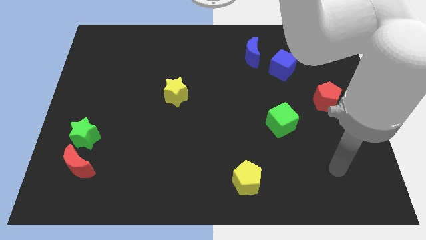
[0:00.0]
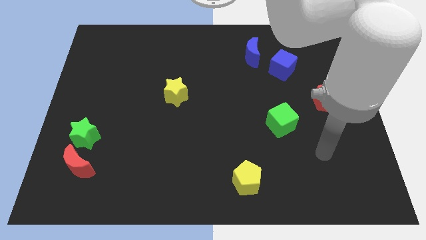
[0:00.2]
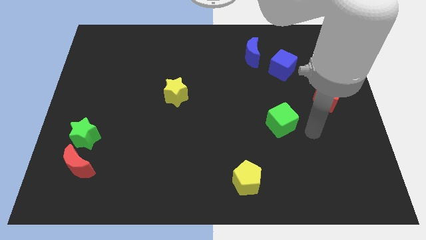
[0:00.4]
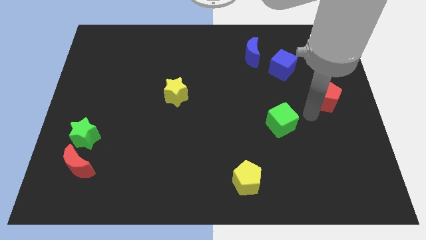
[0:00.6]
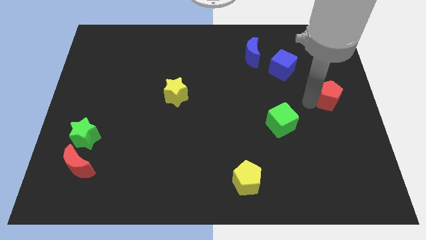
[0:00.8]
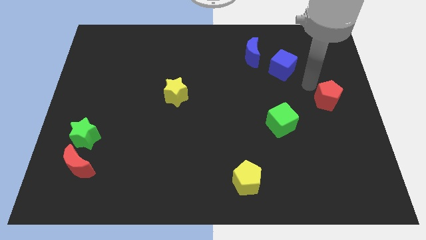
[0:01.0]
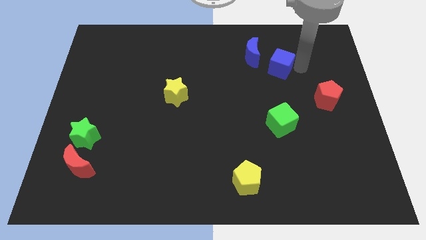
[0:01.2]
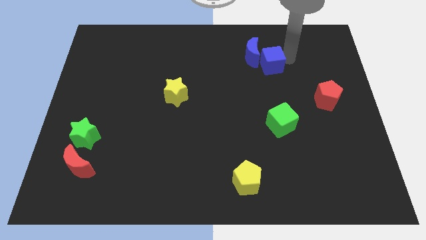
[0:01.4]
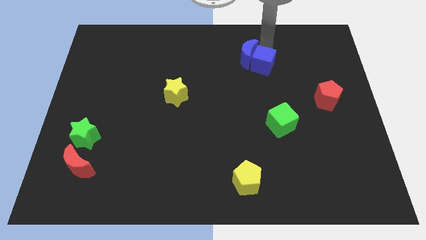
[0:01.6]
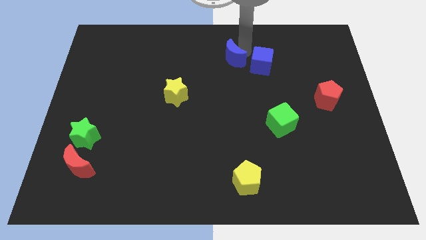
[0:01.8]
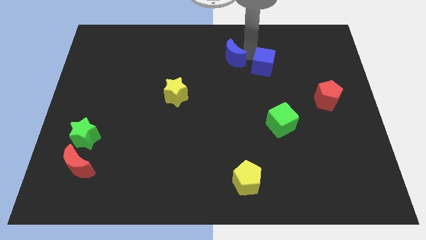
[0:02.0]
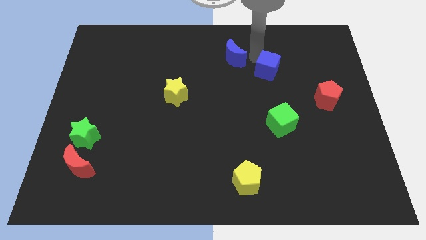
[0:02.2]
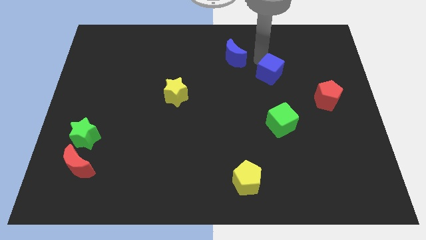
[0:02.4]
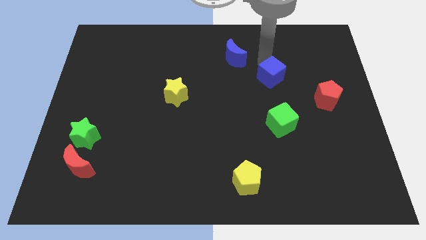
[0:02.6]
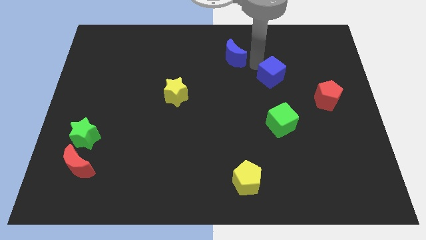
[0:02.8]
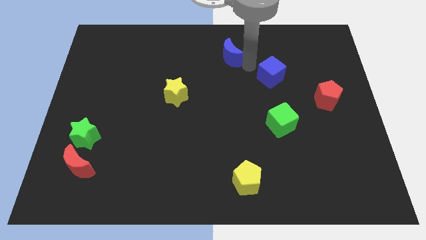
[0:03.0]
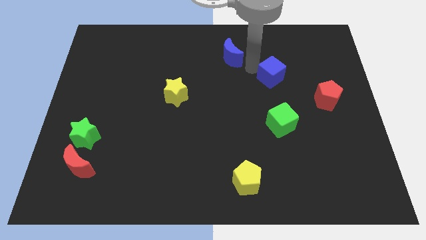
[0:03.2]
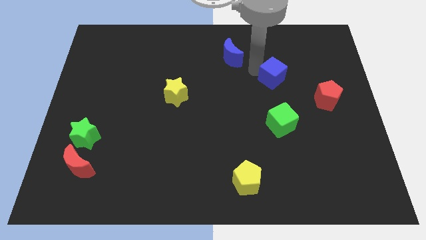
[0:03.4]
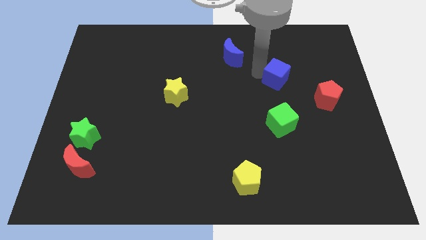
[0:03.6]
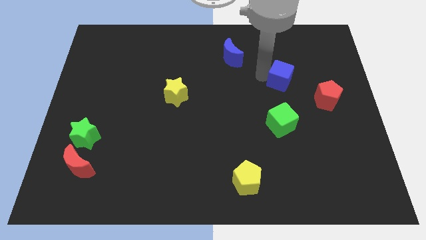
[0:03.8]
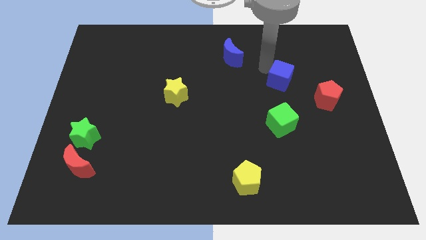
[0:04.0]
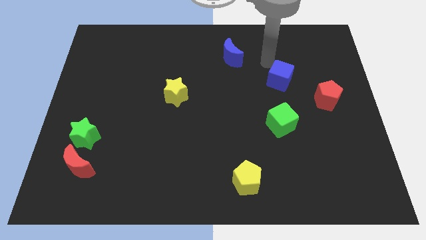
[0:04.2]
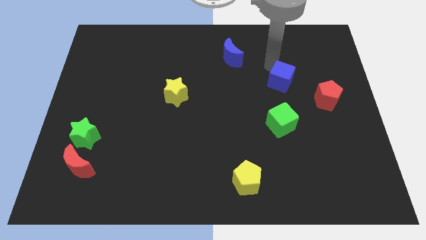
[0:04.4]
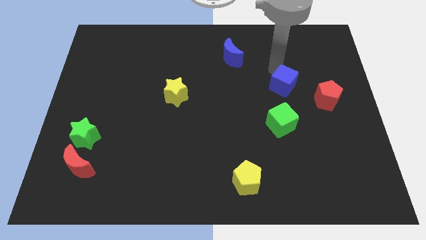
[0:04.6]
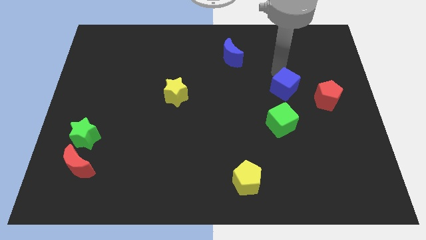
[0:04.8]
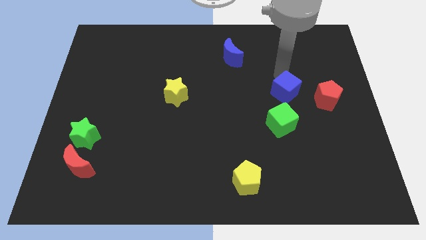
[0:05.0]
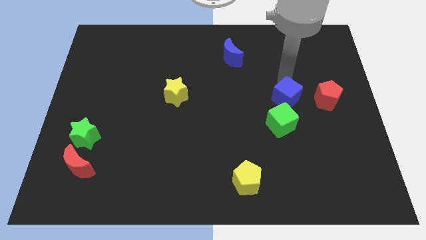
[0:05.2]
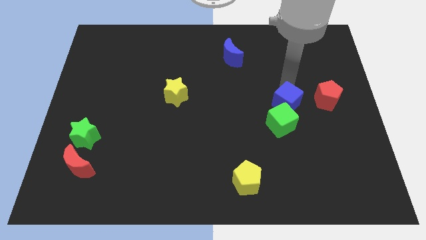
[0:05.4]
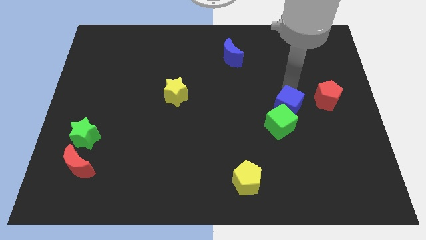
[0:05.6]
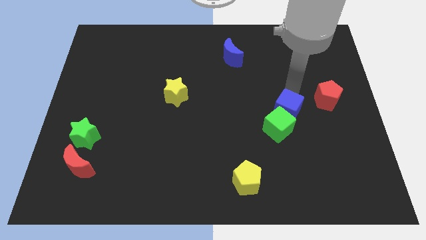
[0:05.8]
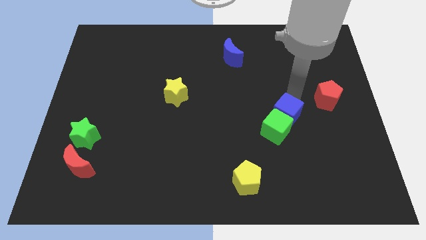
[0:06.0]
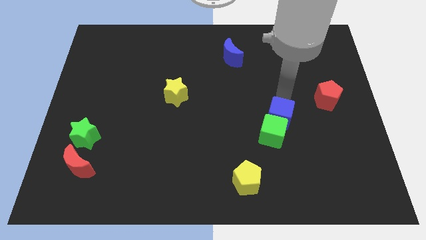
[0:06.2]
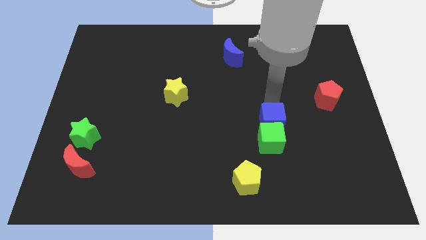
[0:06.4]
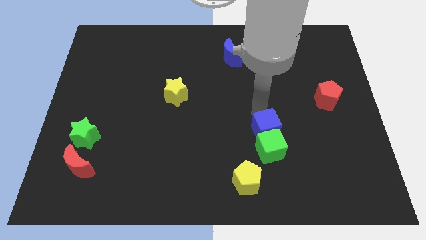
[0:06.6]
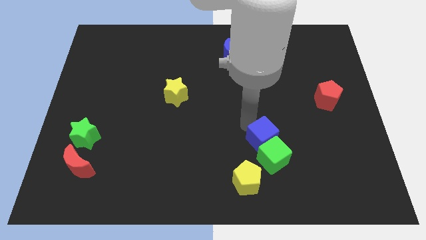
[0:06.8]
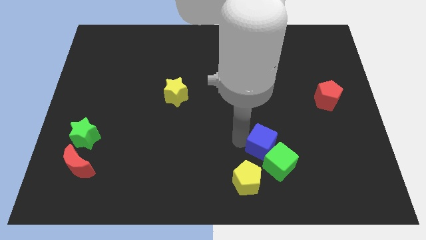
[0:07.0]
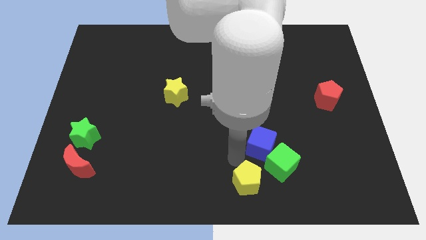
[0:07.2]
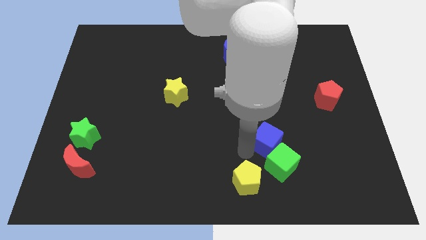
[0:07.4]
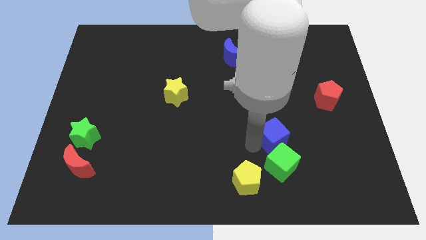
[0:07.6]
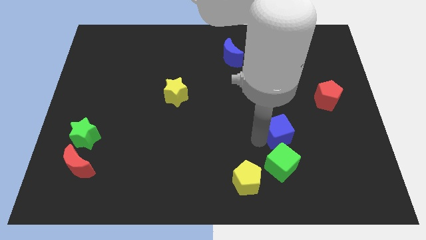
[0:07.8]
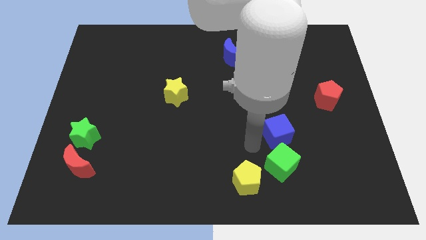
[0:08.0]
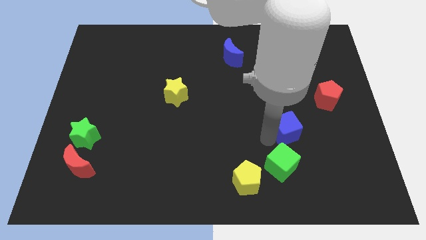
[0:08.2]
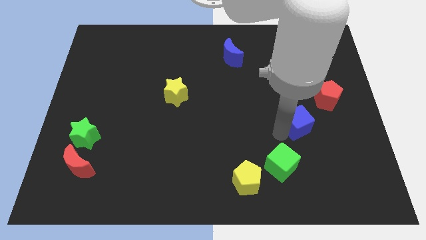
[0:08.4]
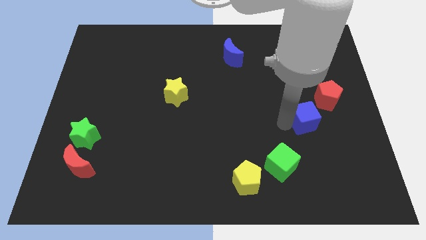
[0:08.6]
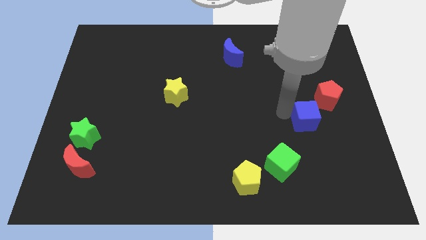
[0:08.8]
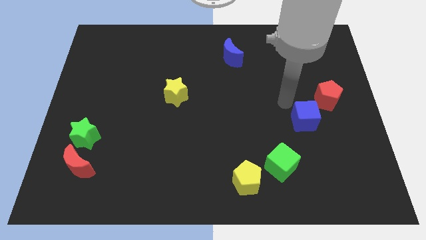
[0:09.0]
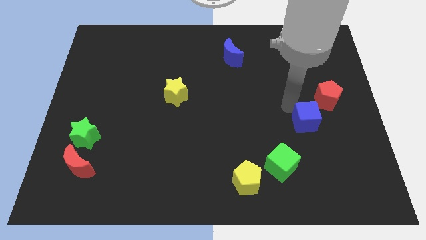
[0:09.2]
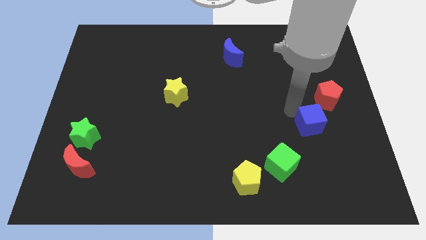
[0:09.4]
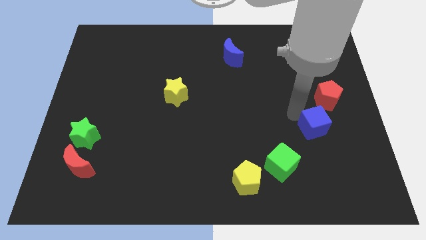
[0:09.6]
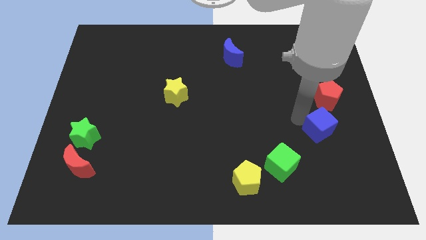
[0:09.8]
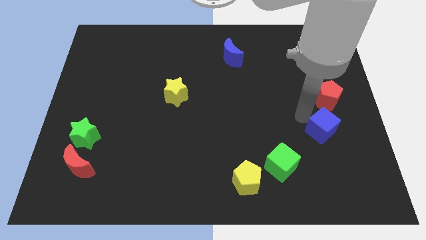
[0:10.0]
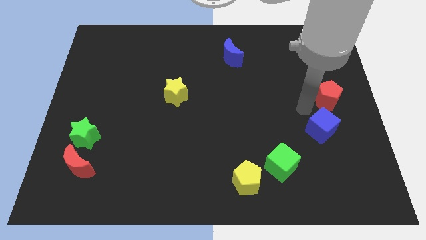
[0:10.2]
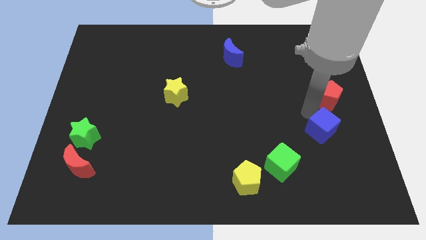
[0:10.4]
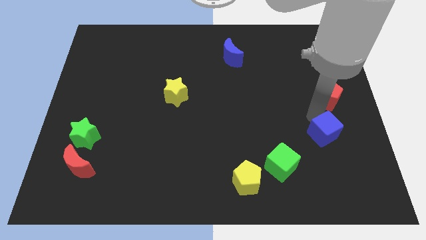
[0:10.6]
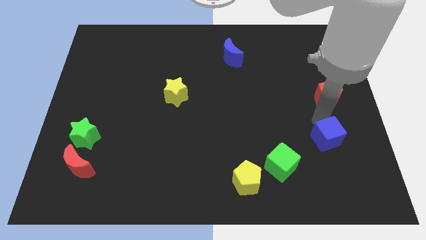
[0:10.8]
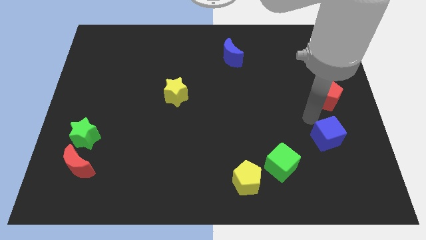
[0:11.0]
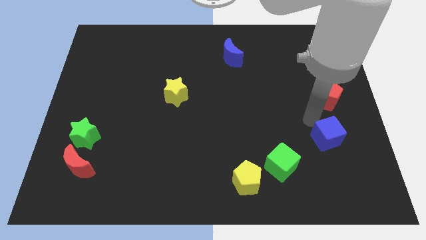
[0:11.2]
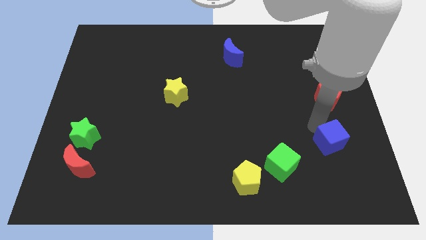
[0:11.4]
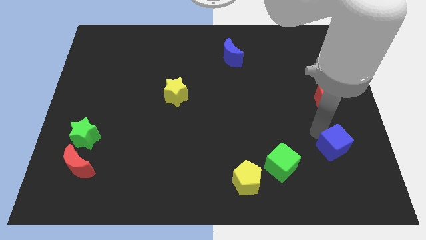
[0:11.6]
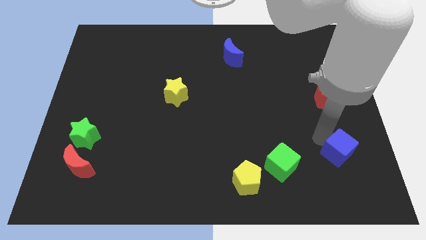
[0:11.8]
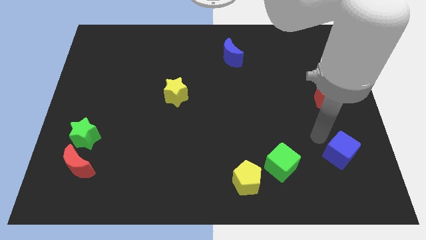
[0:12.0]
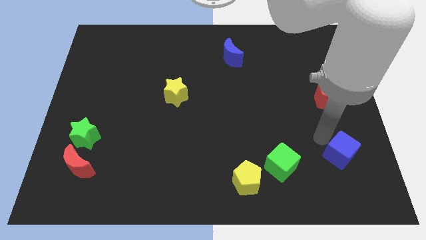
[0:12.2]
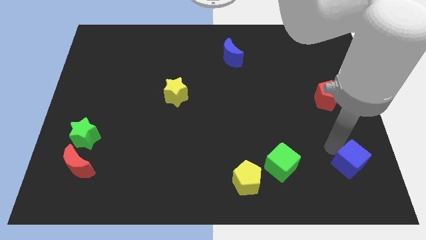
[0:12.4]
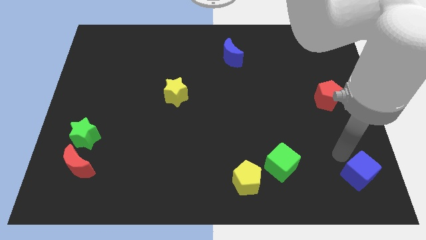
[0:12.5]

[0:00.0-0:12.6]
push the blue cube to the bottom right of the board

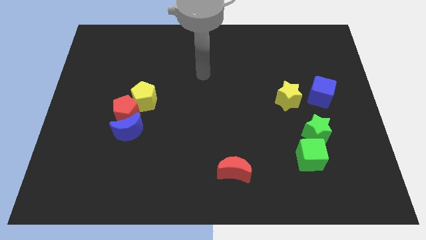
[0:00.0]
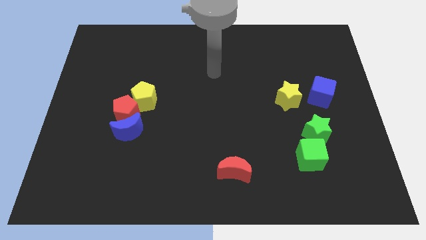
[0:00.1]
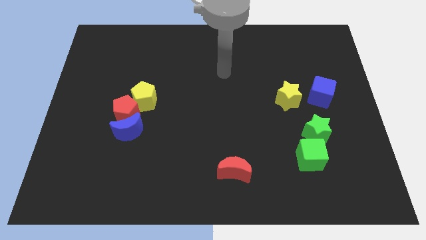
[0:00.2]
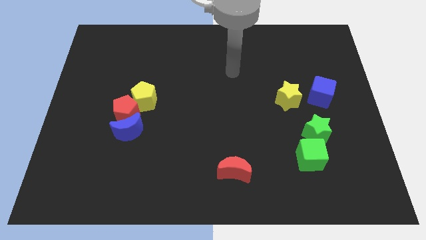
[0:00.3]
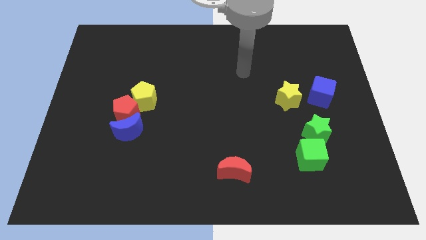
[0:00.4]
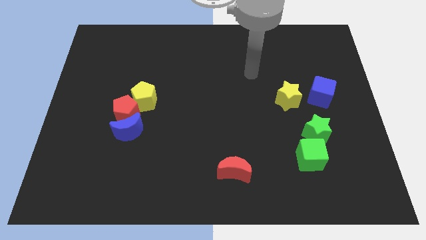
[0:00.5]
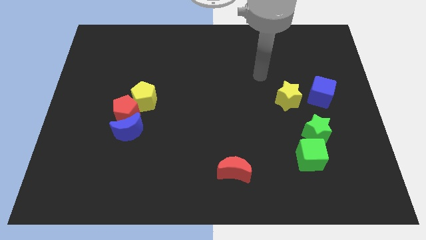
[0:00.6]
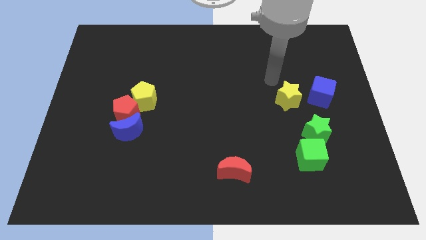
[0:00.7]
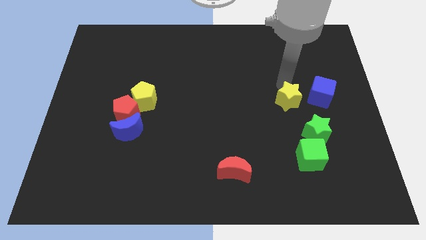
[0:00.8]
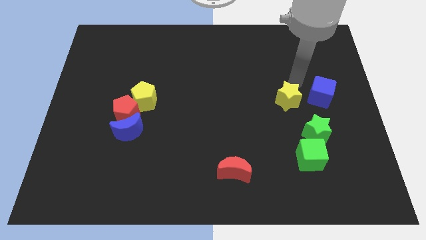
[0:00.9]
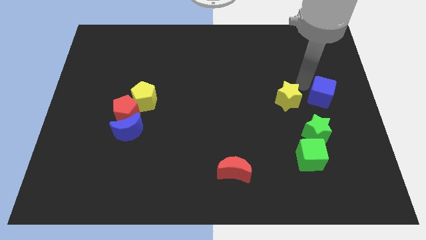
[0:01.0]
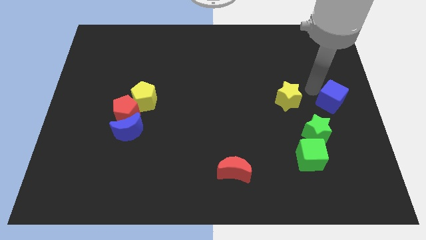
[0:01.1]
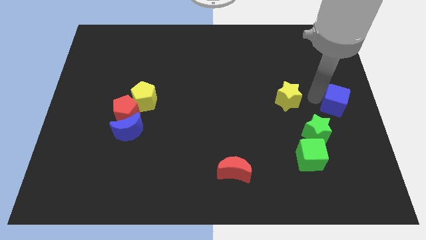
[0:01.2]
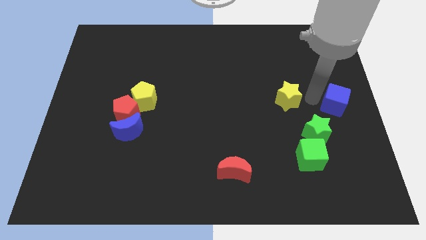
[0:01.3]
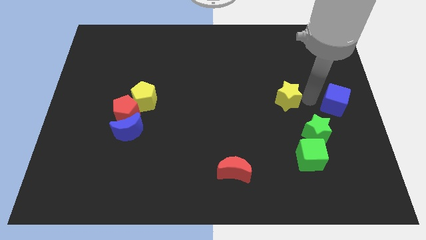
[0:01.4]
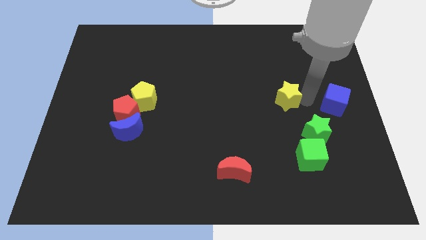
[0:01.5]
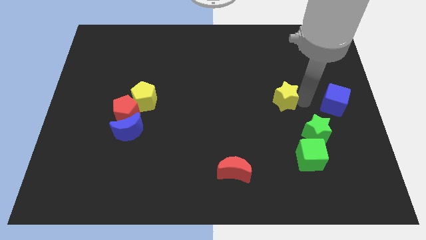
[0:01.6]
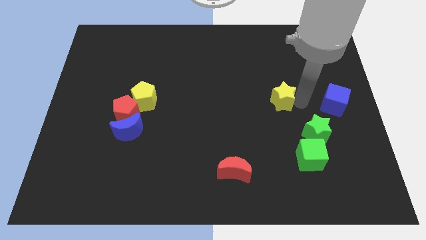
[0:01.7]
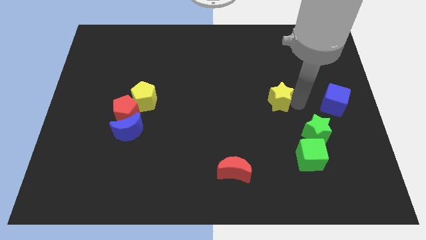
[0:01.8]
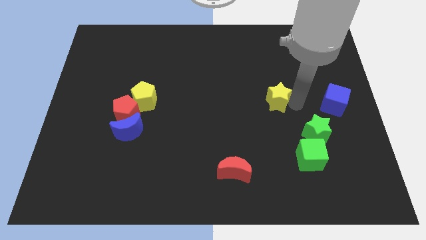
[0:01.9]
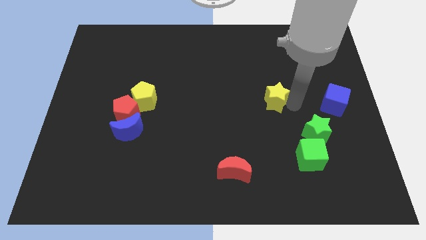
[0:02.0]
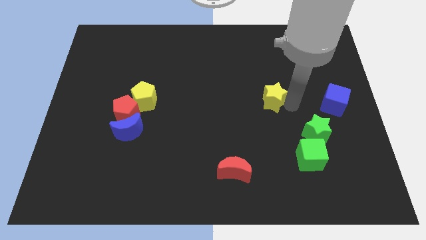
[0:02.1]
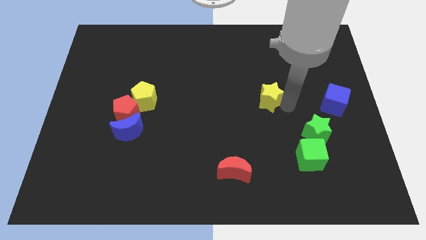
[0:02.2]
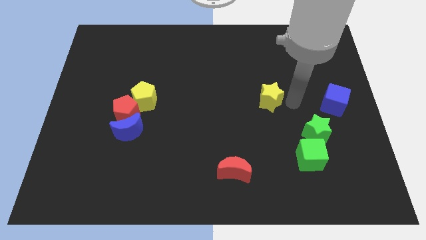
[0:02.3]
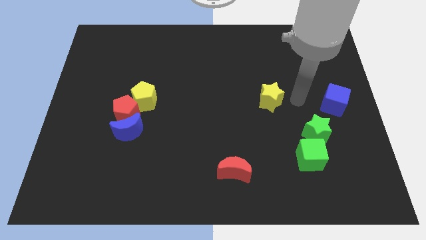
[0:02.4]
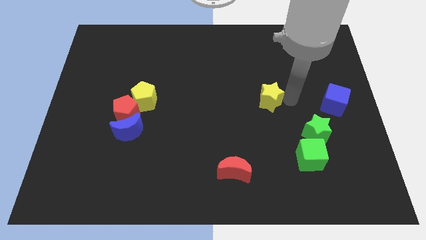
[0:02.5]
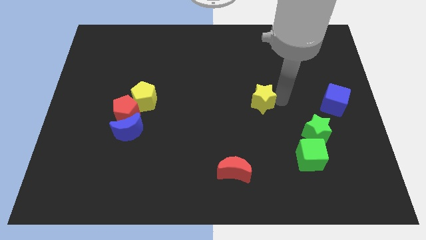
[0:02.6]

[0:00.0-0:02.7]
slide the yellow star to the center
